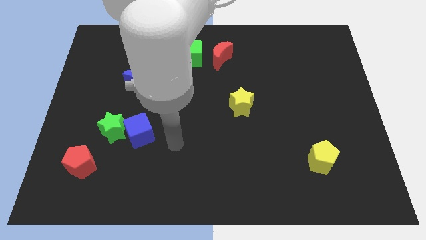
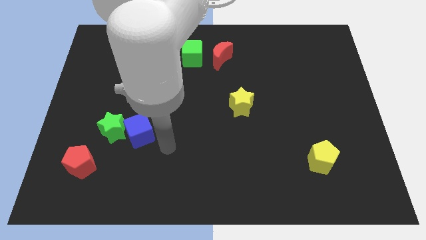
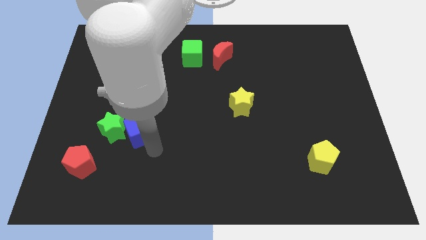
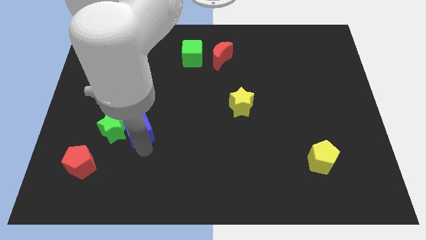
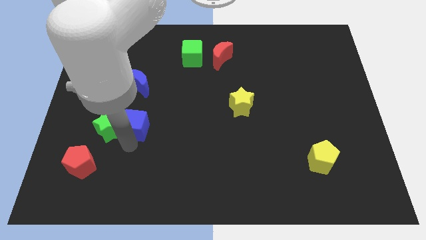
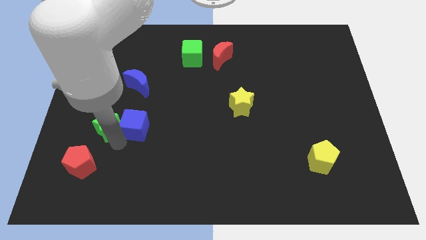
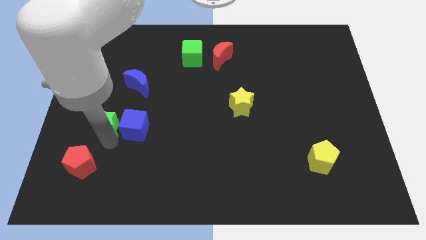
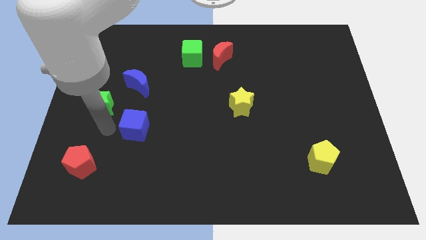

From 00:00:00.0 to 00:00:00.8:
move the blue cube away from the green star

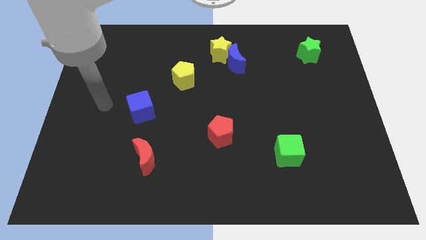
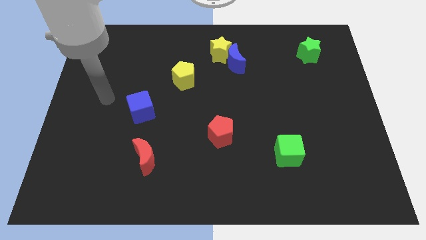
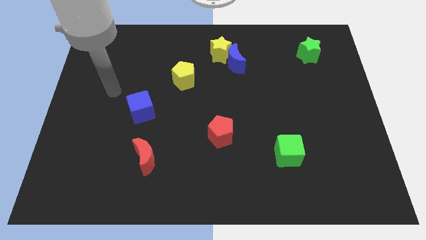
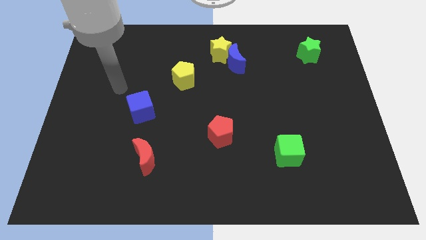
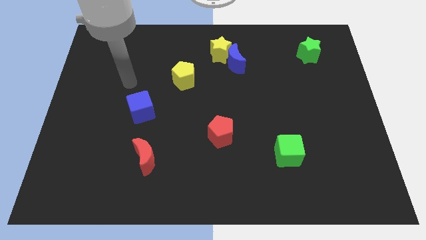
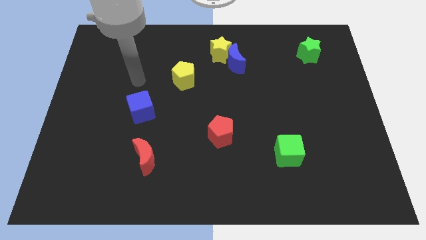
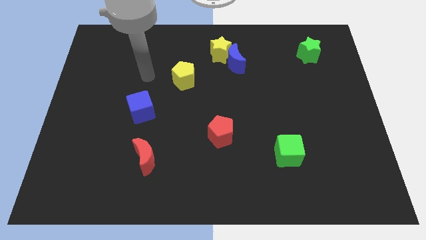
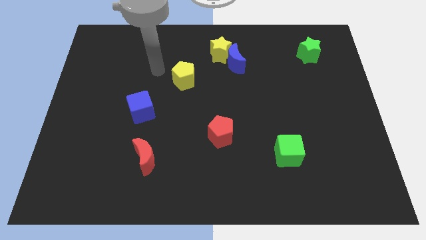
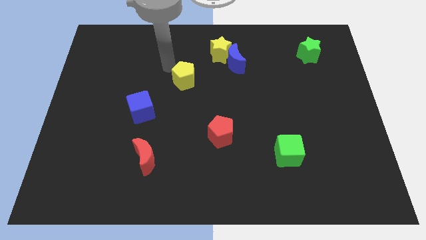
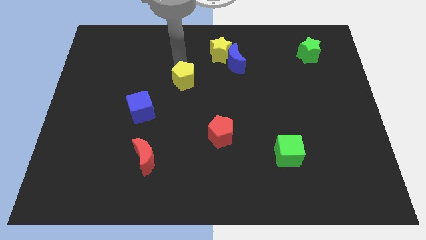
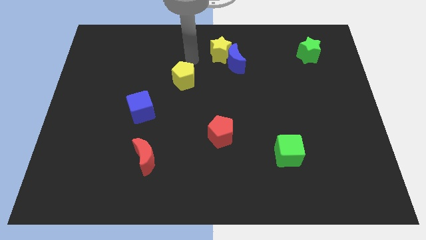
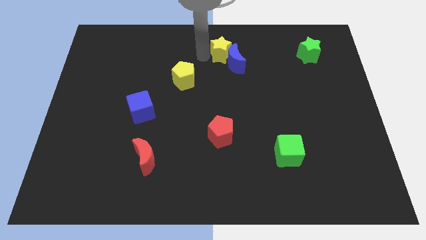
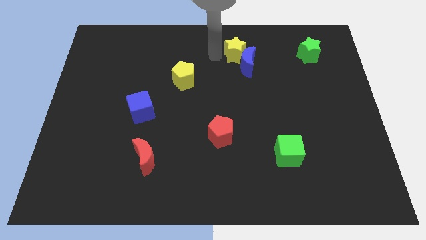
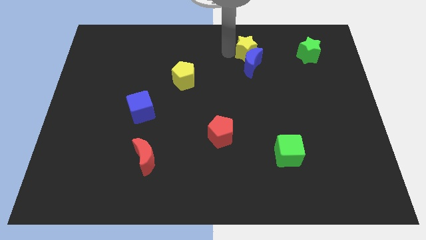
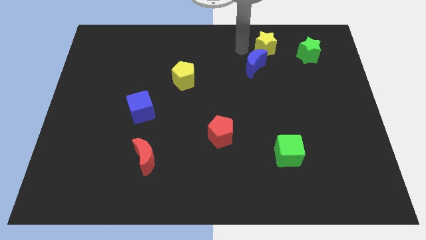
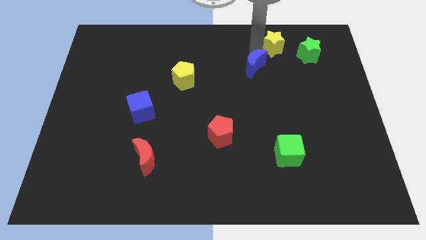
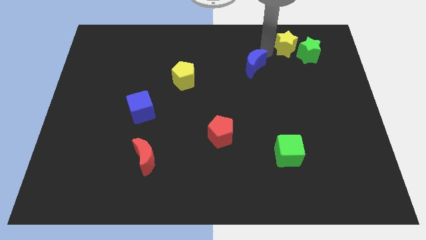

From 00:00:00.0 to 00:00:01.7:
separate the blue moon from the yellow star

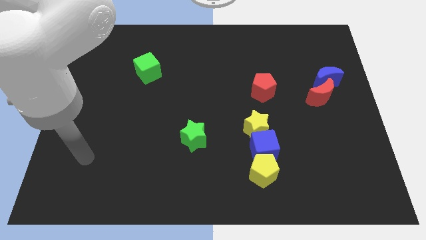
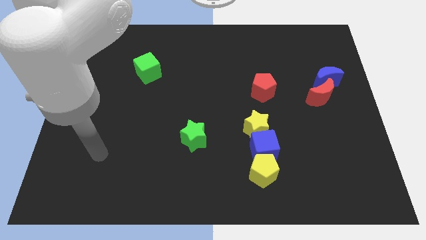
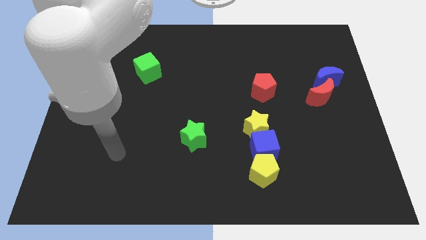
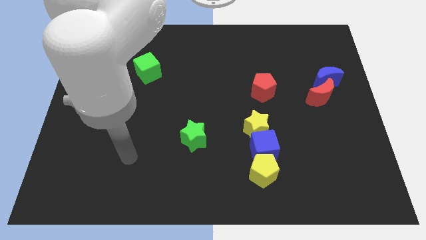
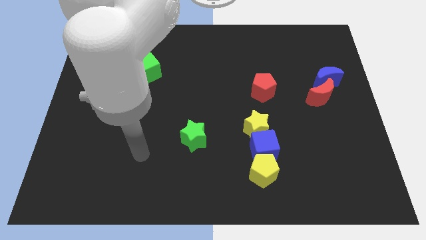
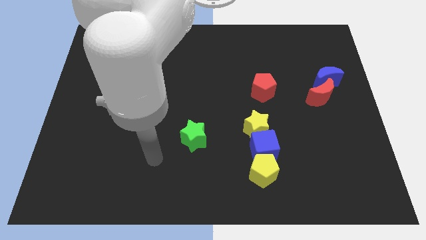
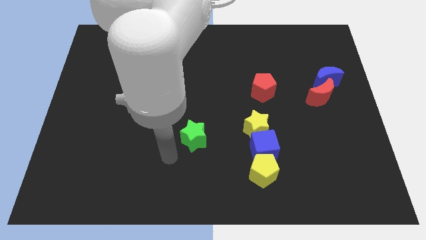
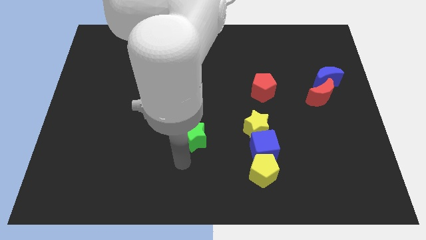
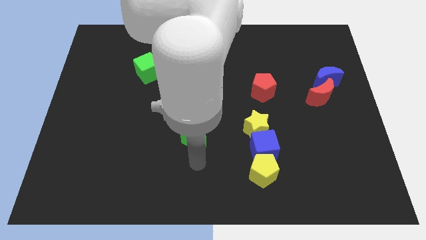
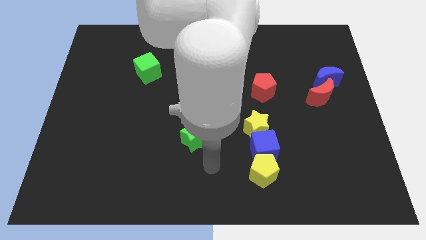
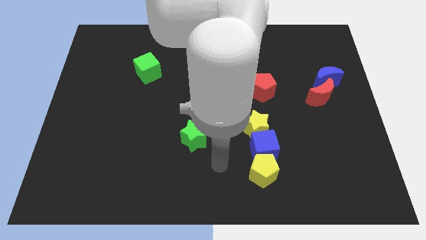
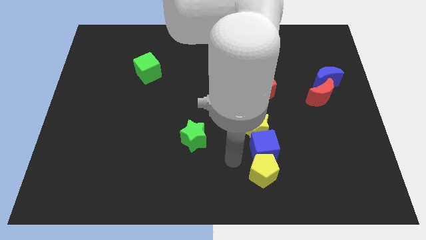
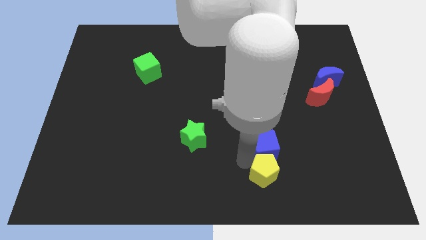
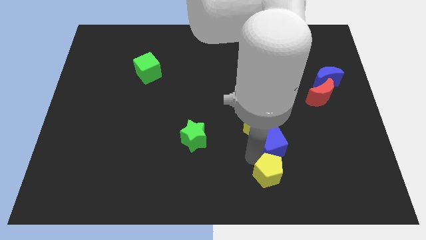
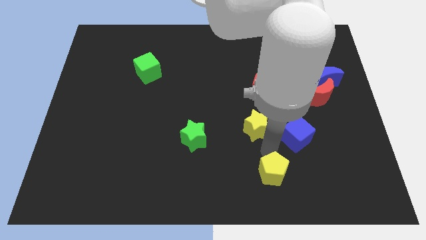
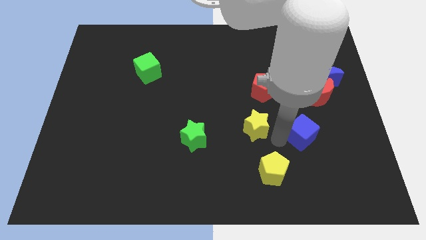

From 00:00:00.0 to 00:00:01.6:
move the yellow star away from the blue cube

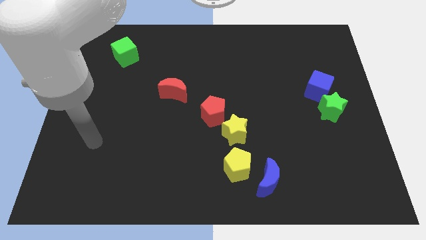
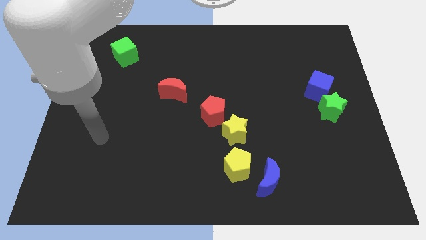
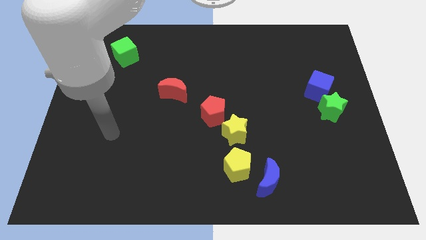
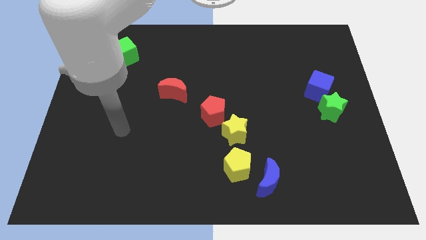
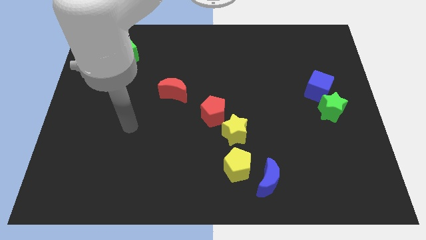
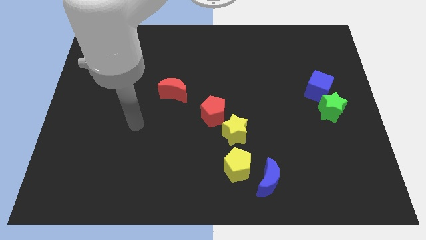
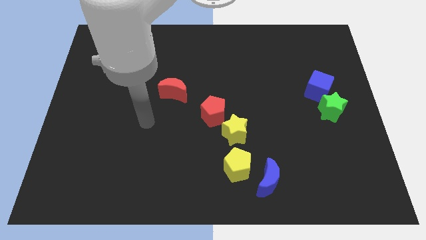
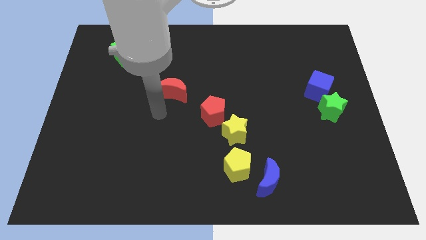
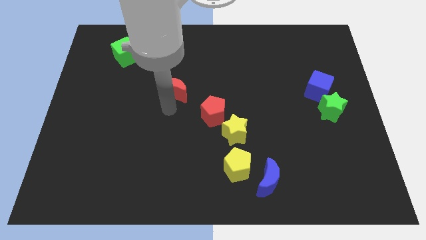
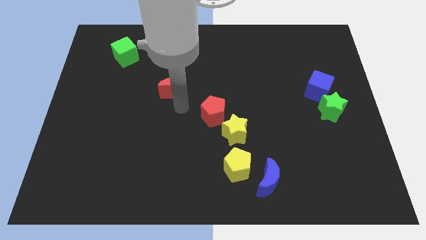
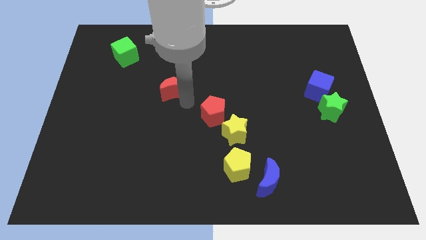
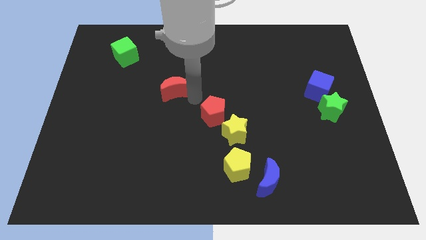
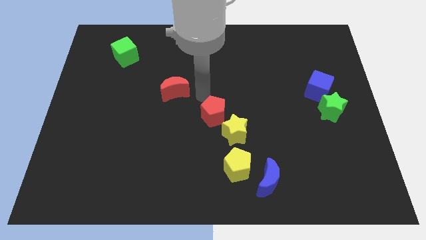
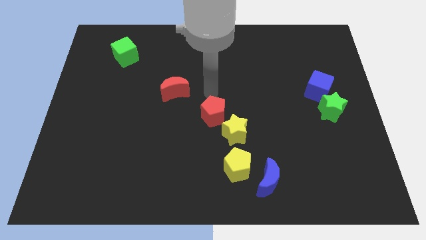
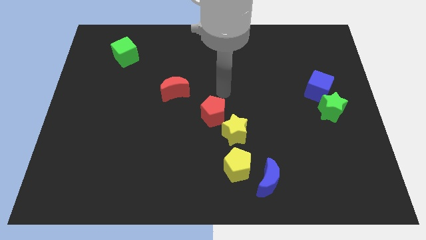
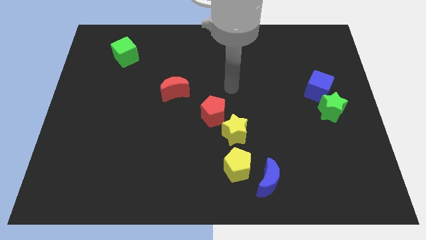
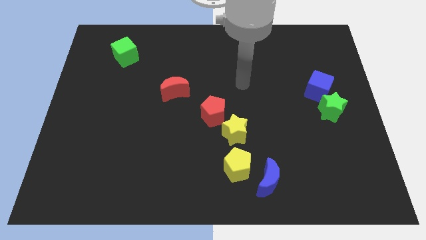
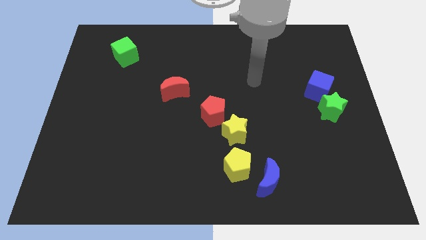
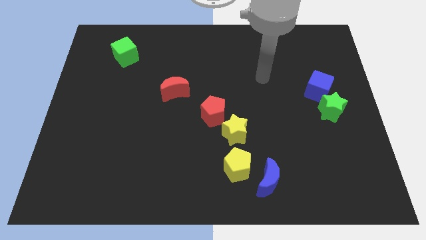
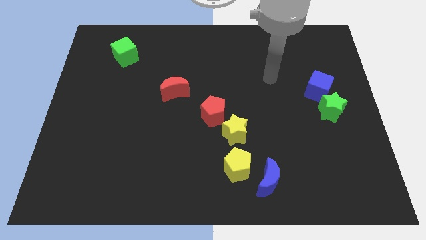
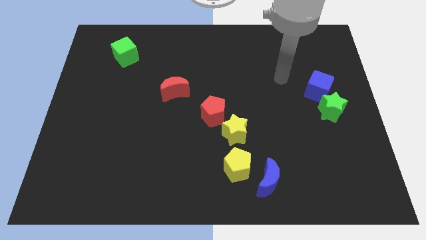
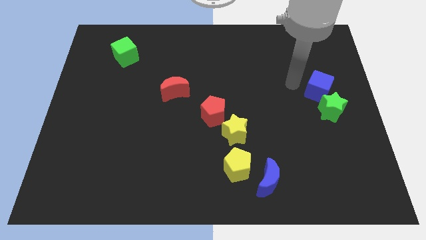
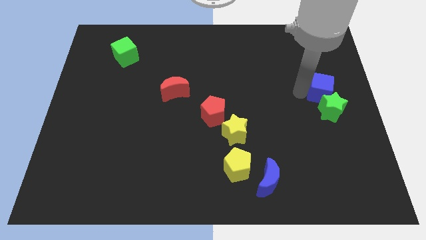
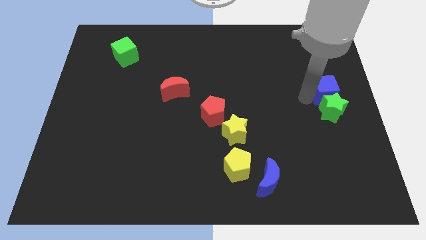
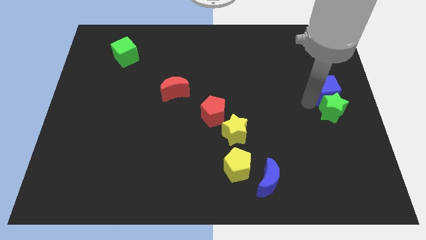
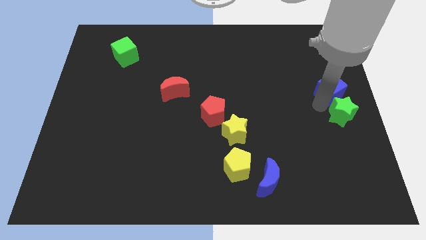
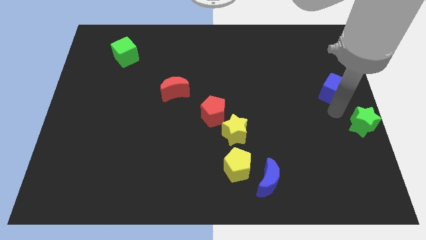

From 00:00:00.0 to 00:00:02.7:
pull the blue cube apart from the green star

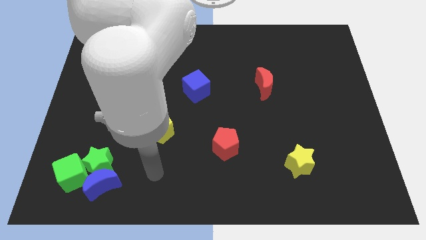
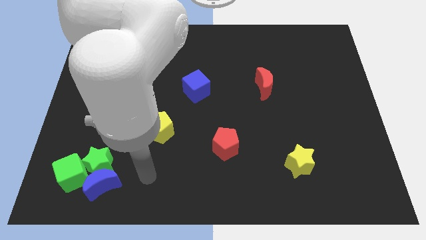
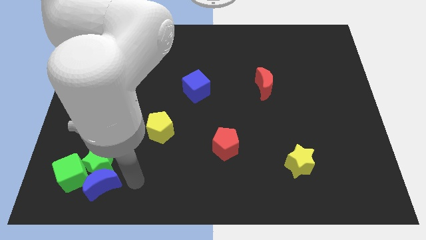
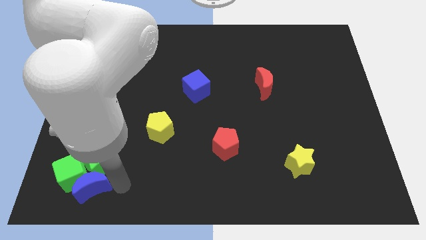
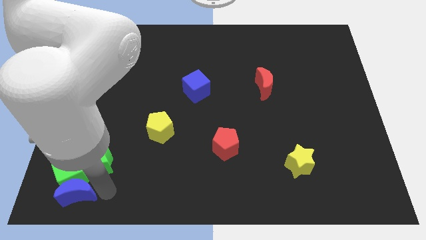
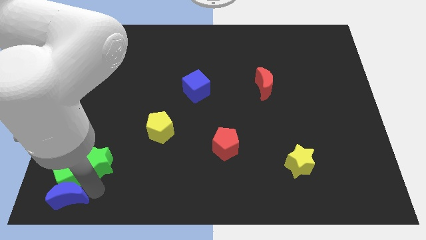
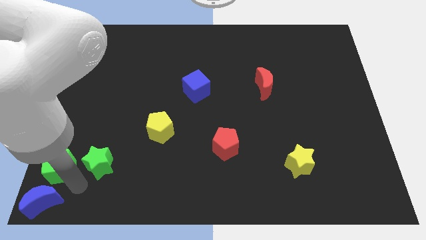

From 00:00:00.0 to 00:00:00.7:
separate the green star from the blue moon and green cube

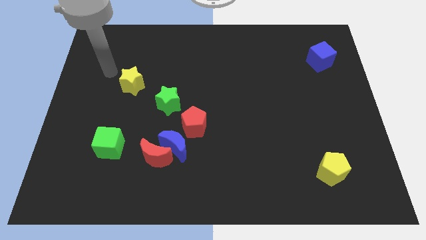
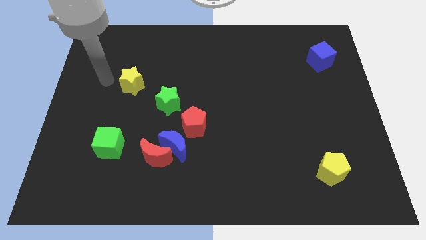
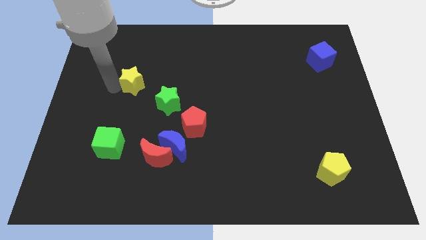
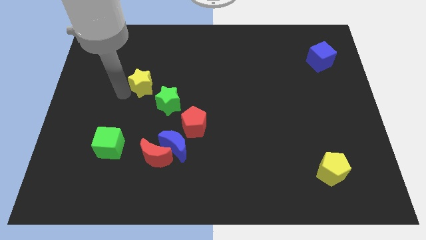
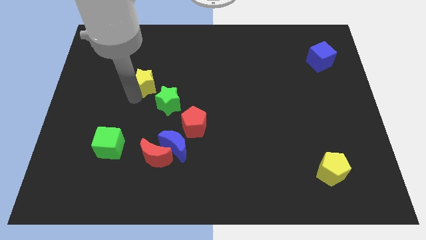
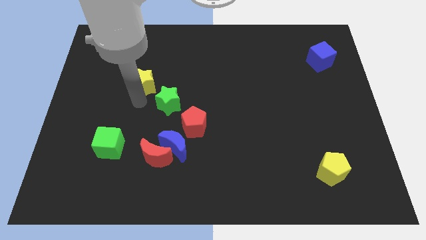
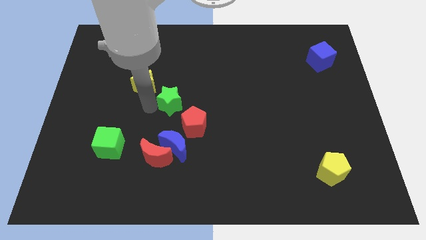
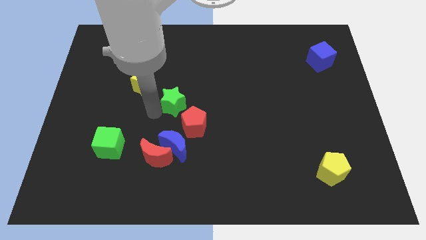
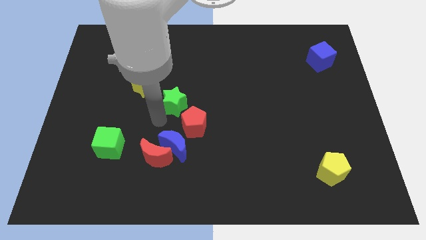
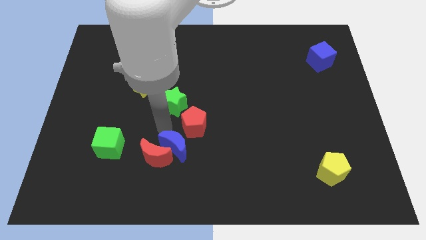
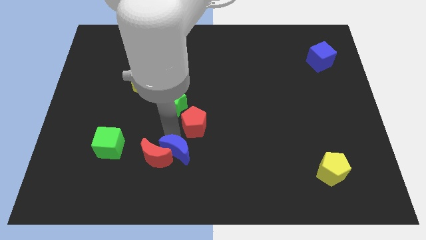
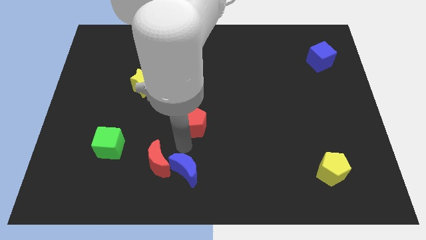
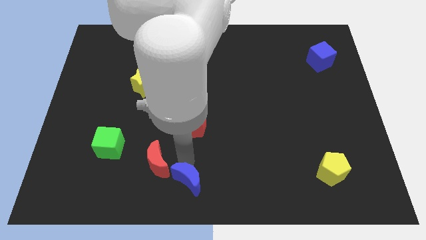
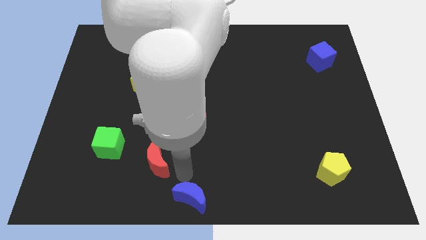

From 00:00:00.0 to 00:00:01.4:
move the red moon away from the blue moon

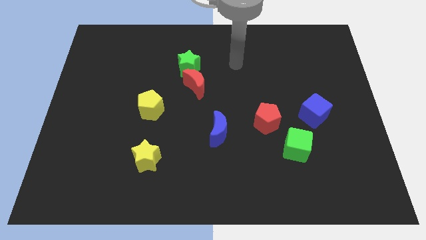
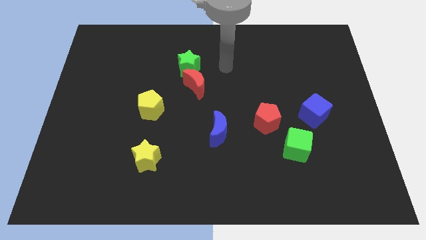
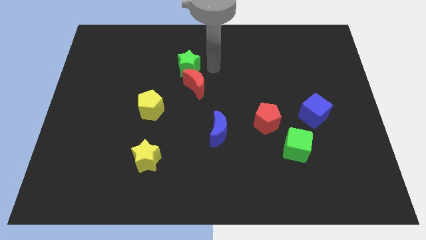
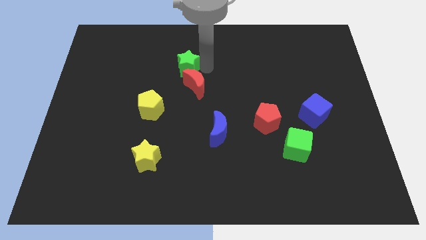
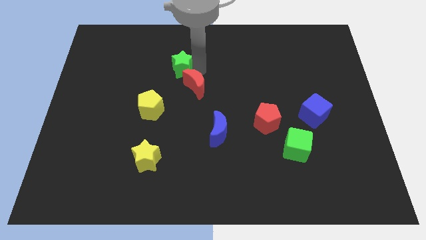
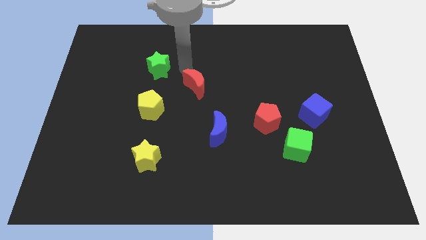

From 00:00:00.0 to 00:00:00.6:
separate the red moon from the green star
